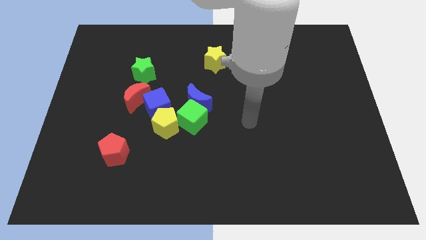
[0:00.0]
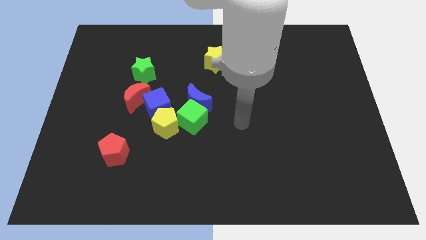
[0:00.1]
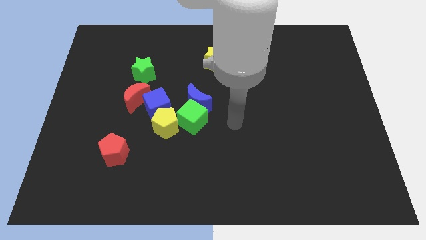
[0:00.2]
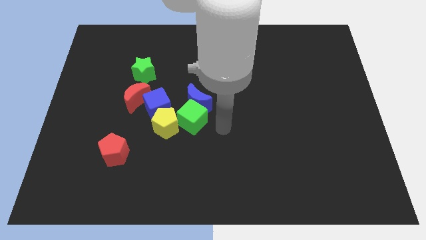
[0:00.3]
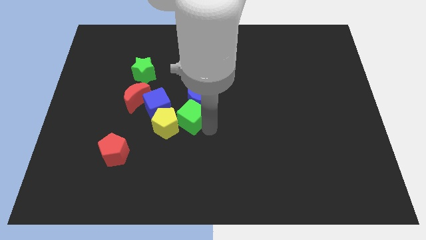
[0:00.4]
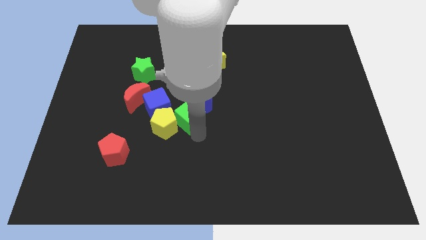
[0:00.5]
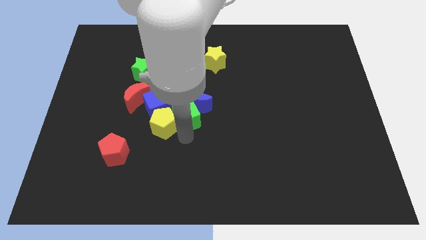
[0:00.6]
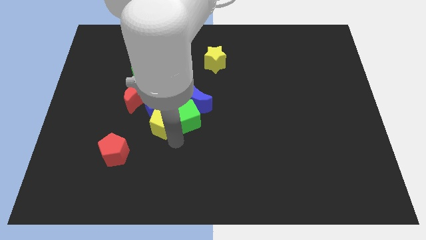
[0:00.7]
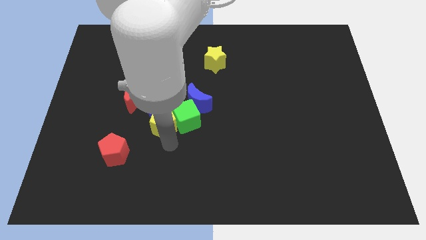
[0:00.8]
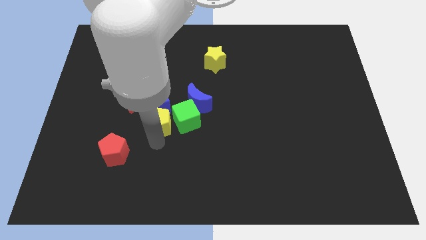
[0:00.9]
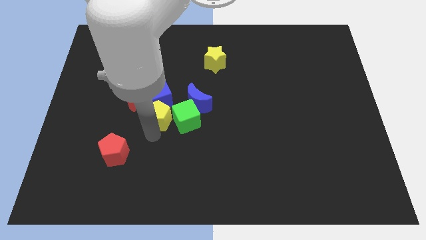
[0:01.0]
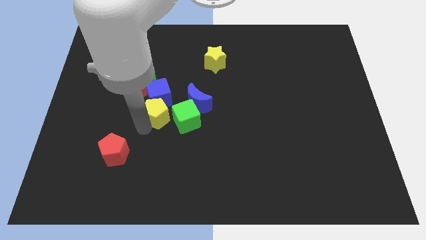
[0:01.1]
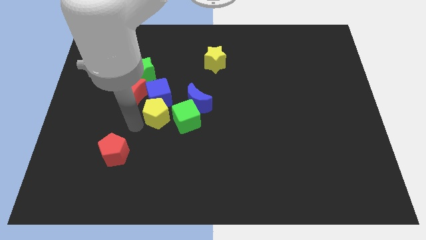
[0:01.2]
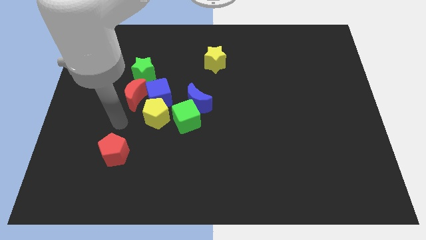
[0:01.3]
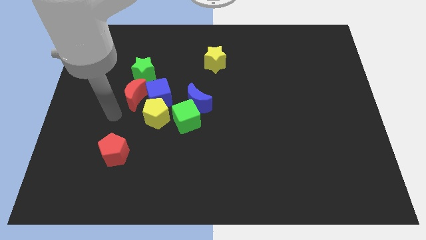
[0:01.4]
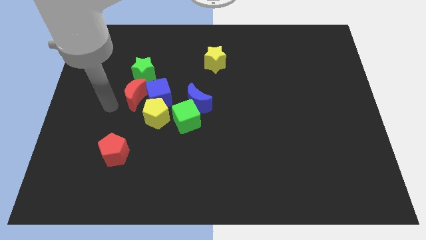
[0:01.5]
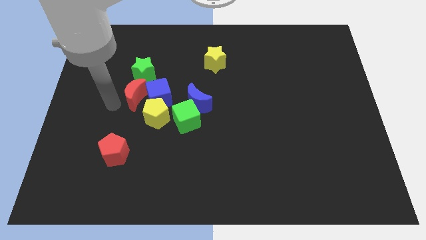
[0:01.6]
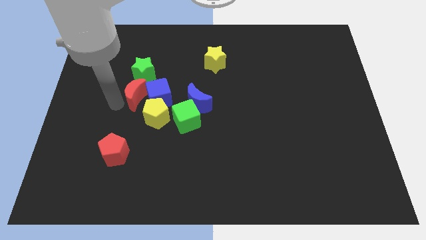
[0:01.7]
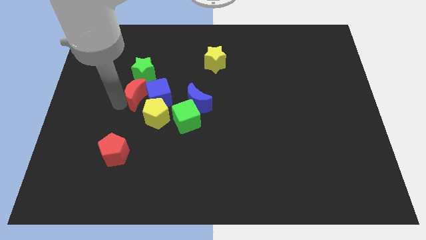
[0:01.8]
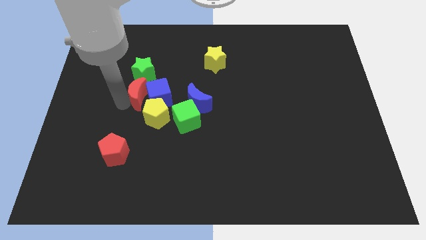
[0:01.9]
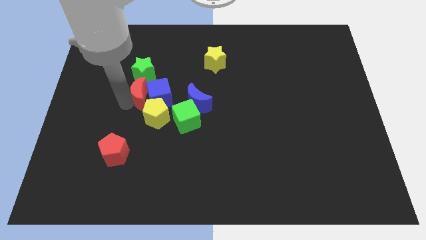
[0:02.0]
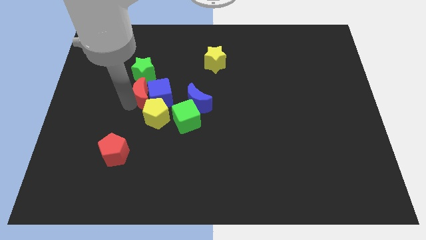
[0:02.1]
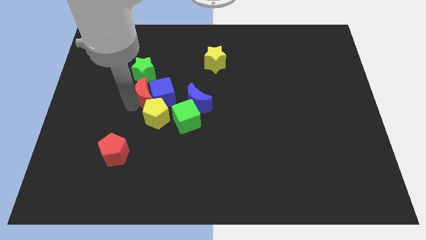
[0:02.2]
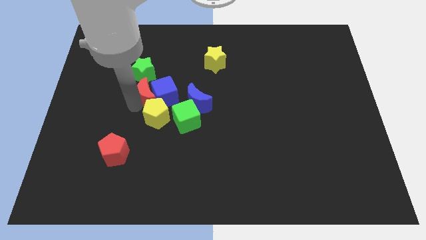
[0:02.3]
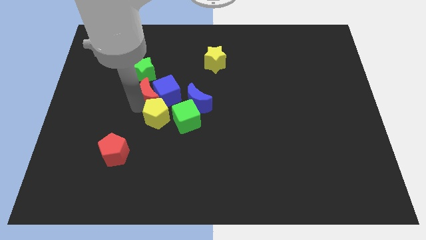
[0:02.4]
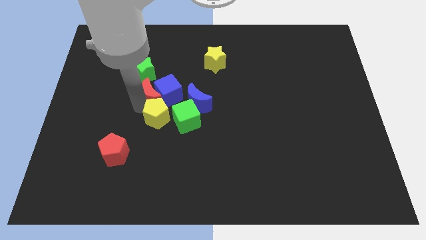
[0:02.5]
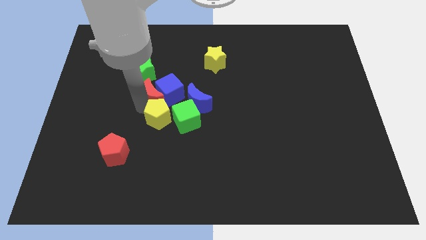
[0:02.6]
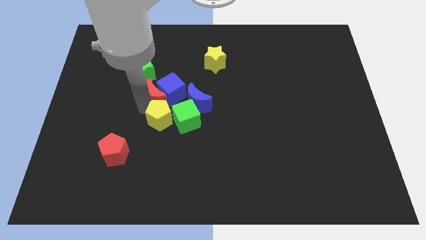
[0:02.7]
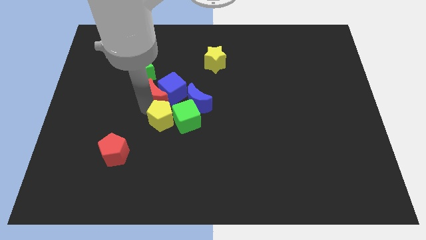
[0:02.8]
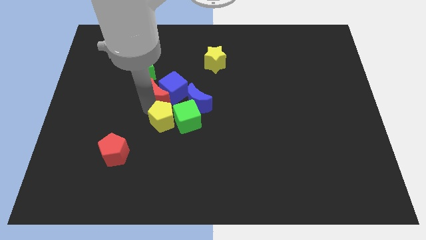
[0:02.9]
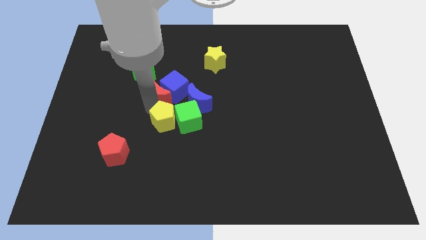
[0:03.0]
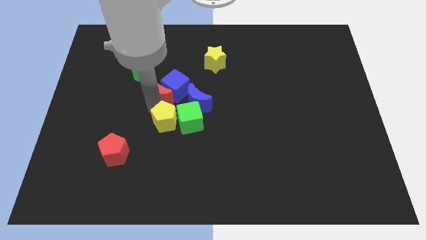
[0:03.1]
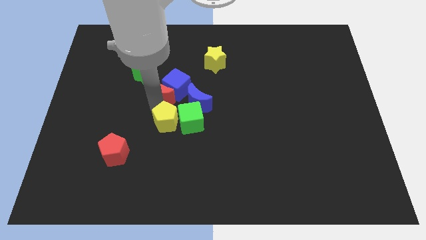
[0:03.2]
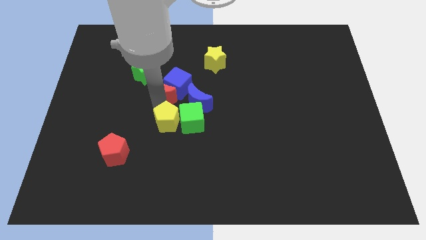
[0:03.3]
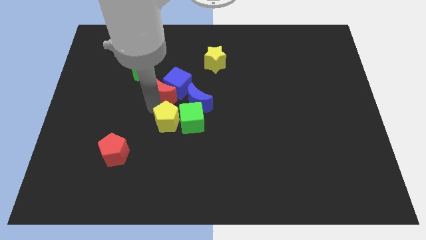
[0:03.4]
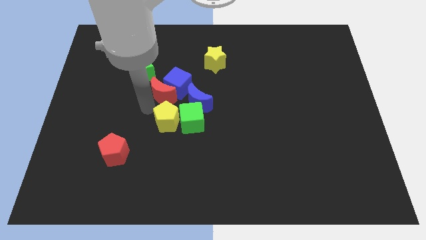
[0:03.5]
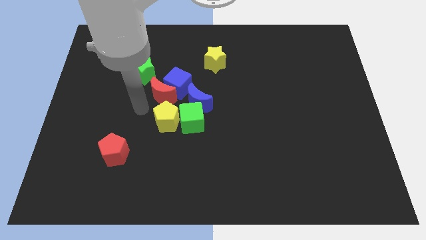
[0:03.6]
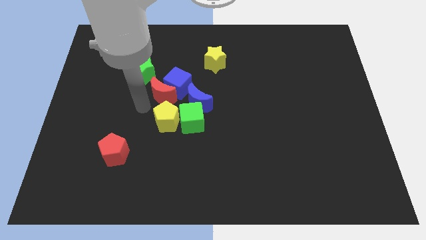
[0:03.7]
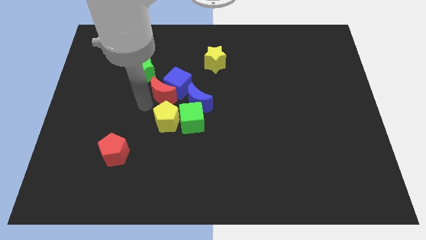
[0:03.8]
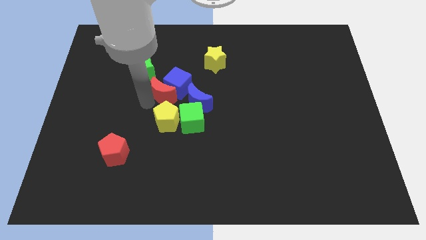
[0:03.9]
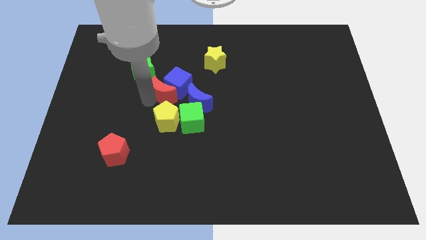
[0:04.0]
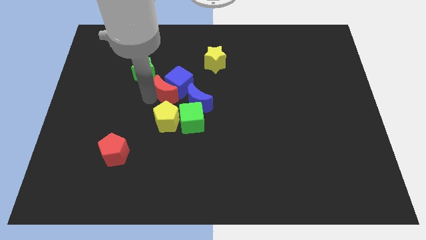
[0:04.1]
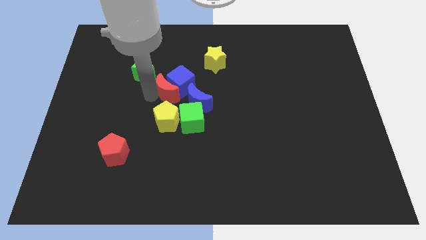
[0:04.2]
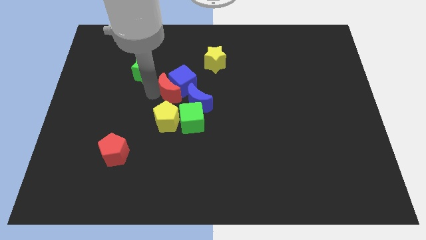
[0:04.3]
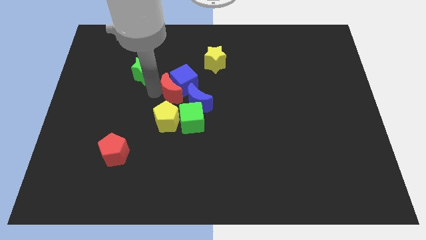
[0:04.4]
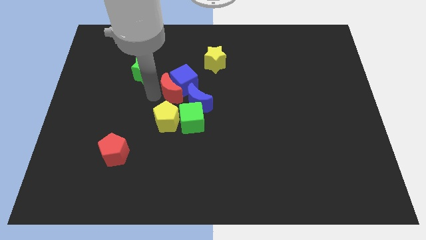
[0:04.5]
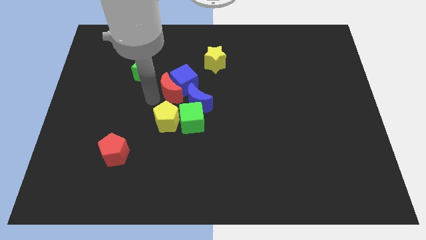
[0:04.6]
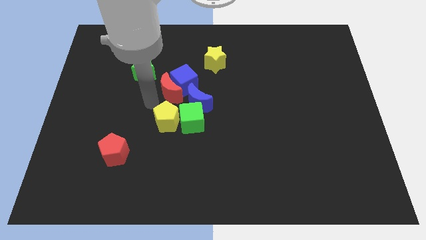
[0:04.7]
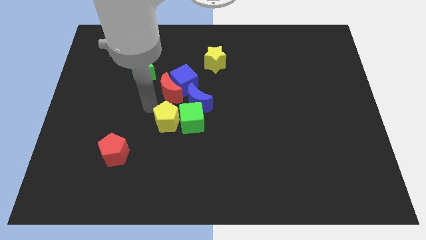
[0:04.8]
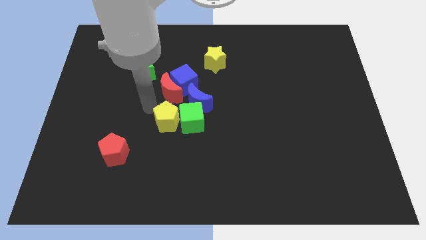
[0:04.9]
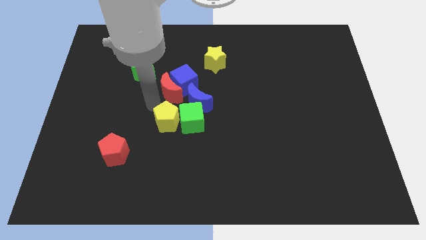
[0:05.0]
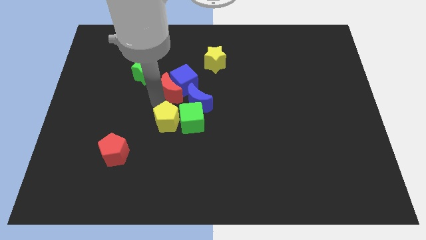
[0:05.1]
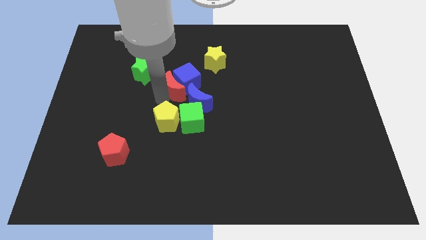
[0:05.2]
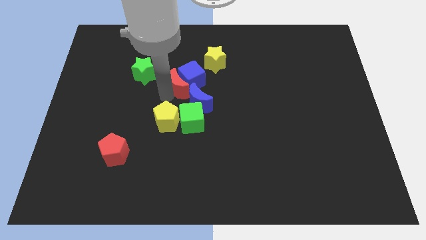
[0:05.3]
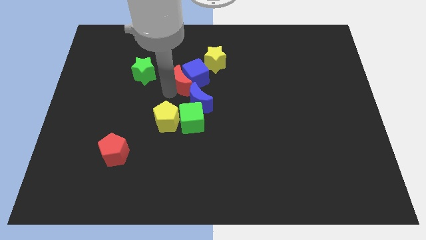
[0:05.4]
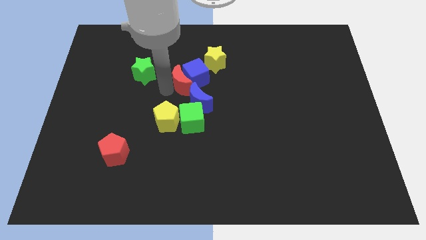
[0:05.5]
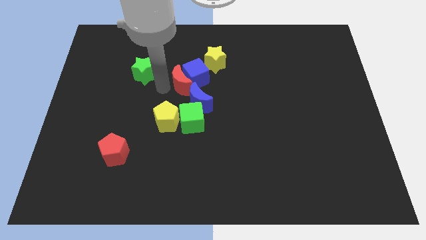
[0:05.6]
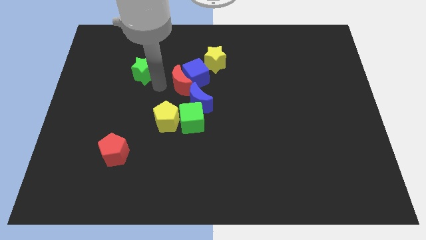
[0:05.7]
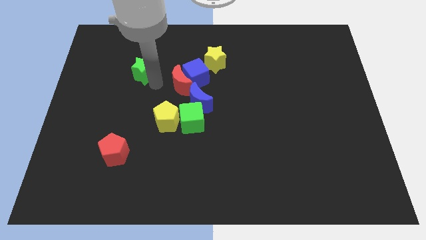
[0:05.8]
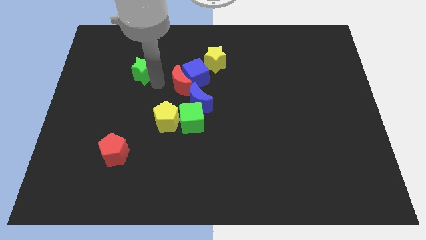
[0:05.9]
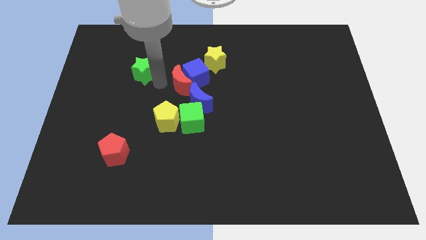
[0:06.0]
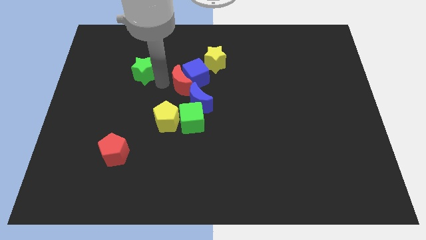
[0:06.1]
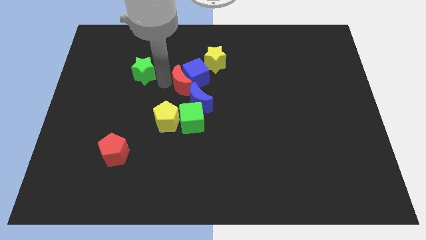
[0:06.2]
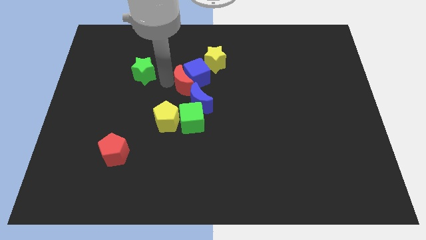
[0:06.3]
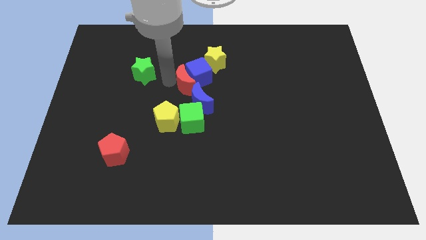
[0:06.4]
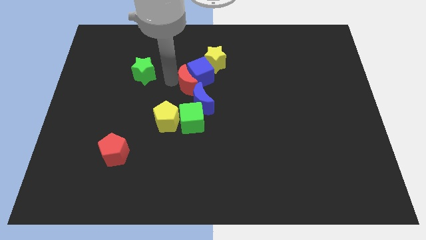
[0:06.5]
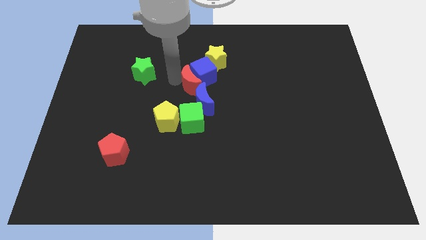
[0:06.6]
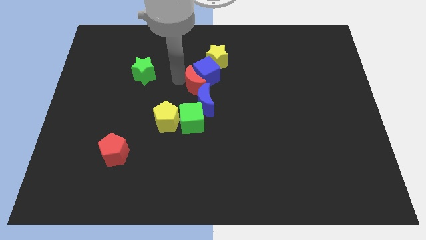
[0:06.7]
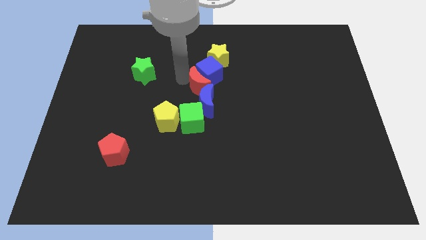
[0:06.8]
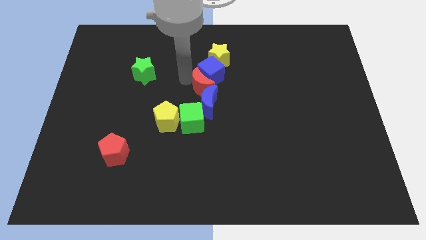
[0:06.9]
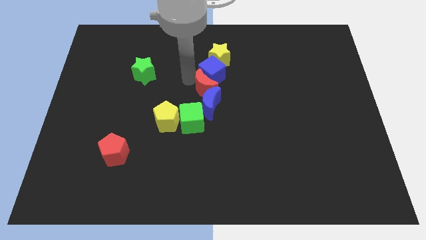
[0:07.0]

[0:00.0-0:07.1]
slide the red moon diagonally up and to the right of the blue moon
